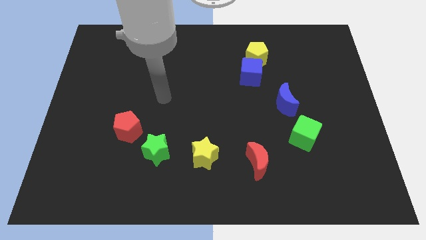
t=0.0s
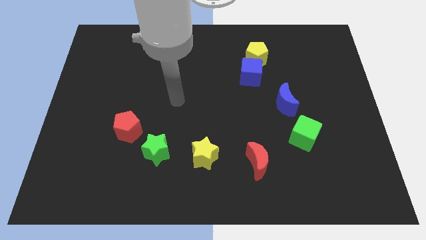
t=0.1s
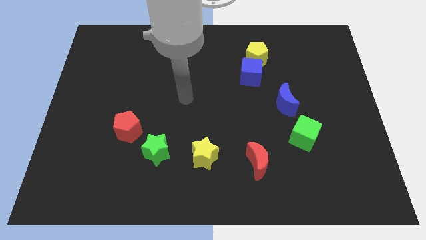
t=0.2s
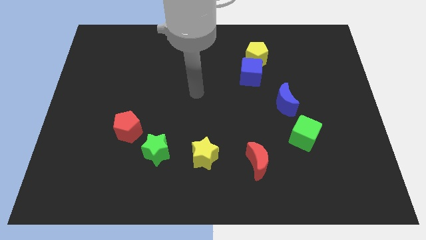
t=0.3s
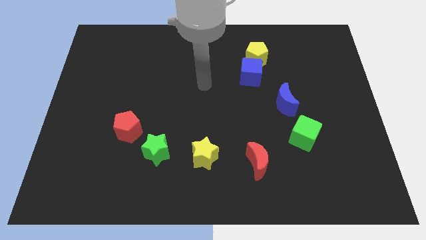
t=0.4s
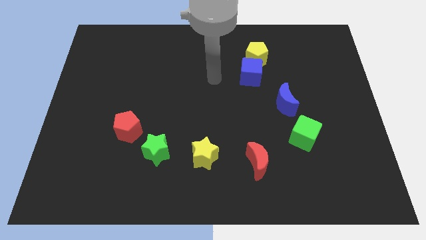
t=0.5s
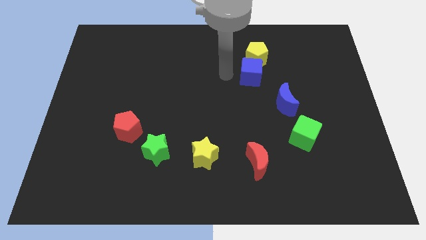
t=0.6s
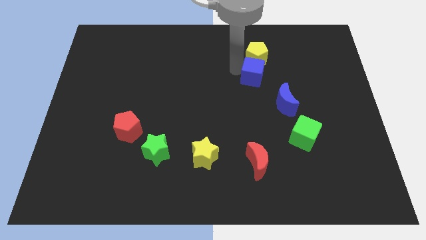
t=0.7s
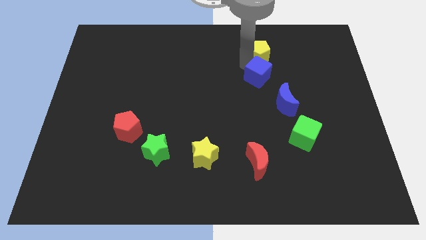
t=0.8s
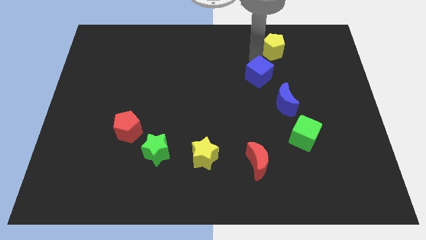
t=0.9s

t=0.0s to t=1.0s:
move the blue cube away from the yellow pentagon

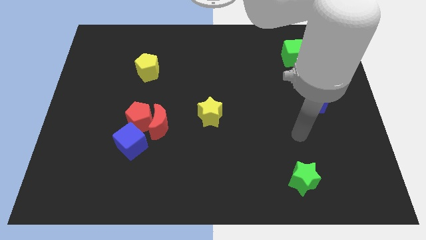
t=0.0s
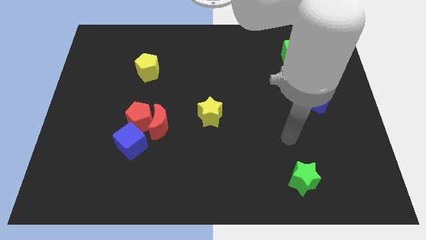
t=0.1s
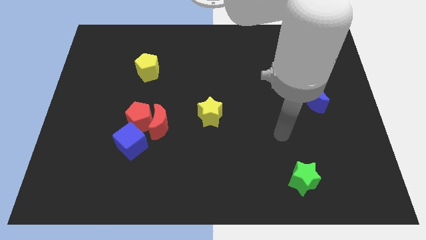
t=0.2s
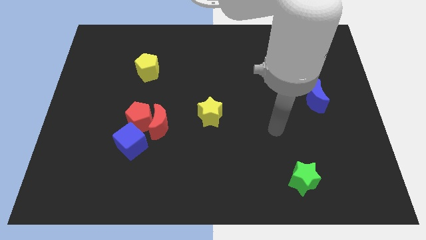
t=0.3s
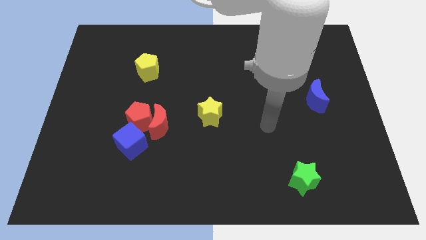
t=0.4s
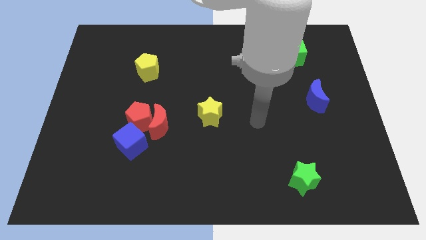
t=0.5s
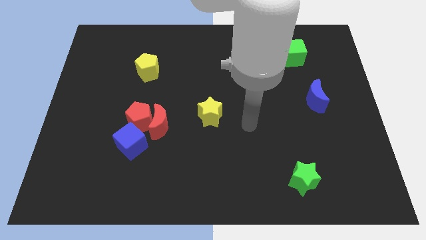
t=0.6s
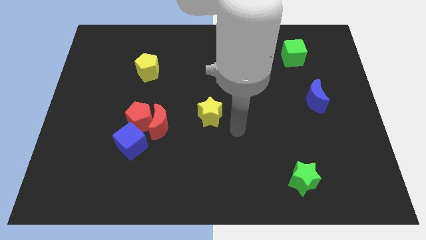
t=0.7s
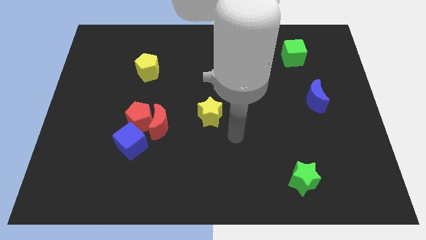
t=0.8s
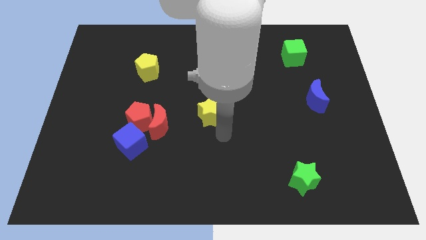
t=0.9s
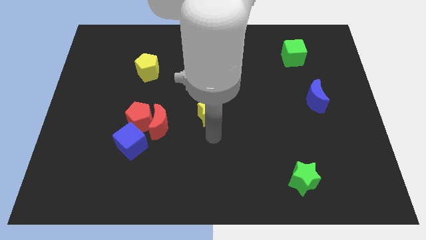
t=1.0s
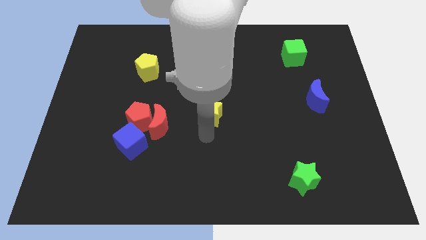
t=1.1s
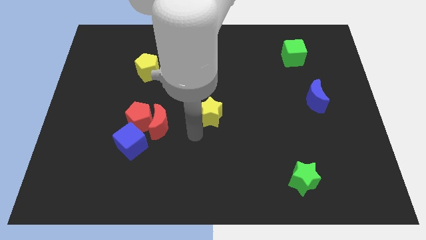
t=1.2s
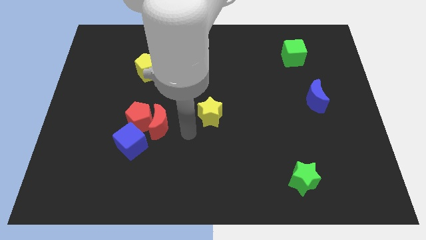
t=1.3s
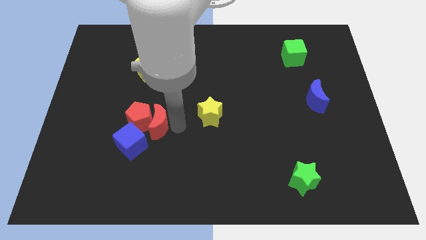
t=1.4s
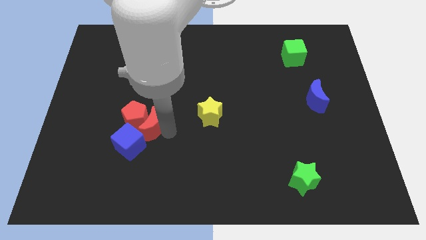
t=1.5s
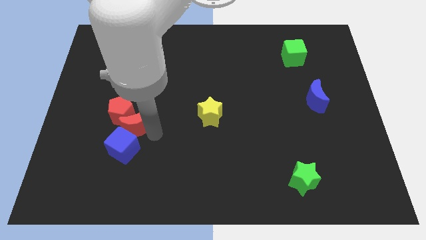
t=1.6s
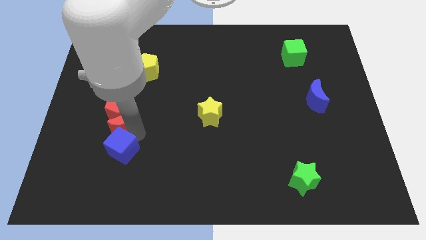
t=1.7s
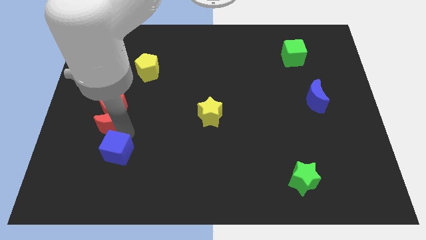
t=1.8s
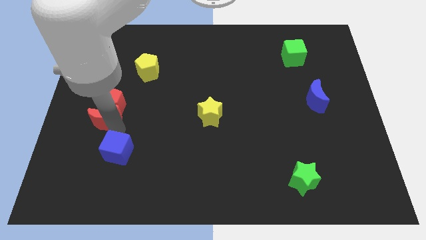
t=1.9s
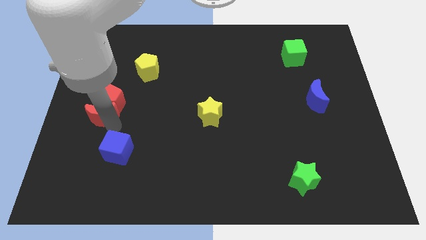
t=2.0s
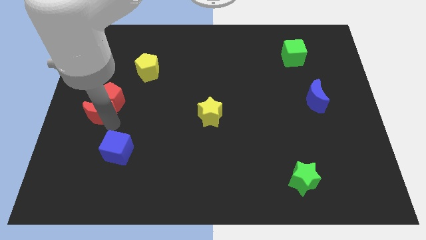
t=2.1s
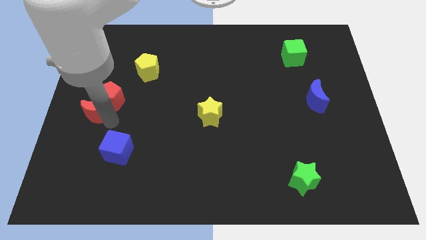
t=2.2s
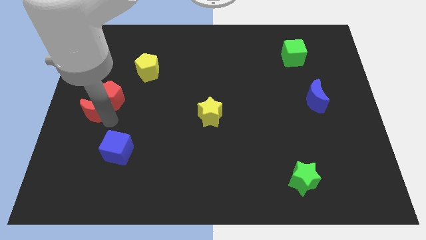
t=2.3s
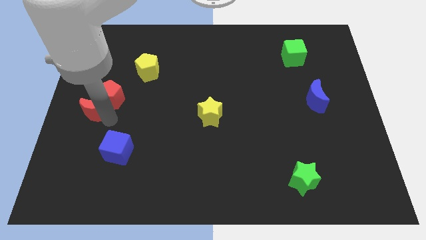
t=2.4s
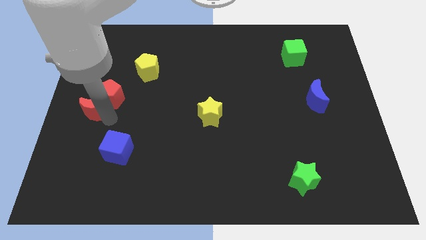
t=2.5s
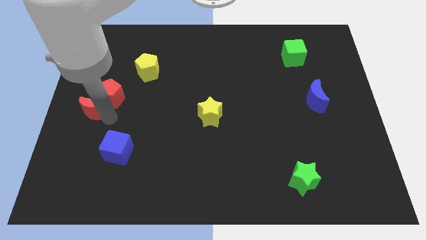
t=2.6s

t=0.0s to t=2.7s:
move the red pentagon away from the red moon and blue cube

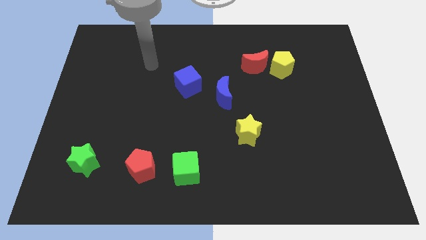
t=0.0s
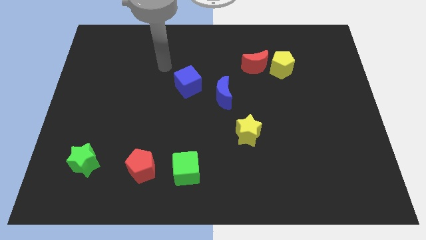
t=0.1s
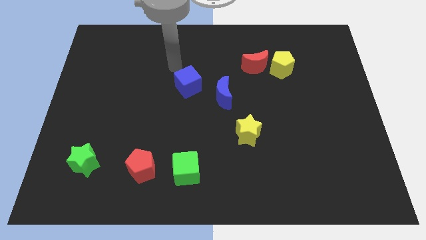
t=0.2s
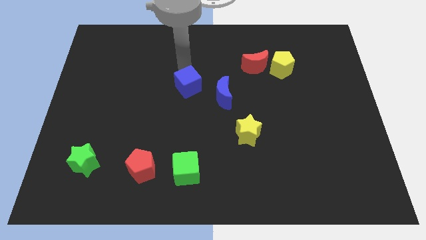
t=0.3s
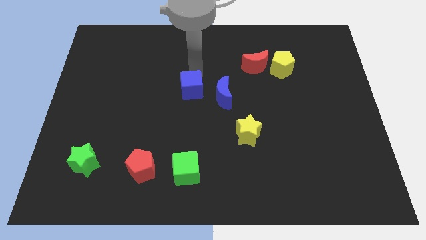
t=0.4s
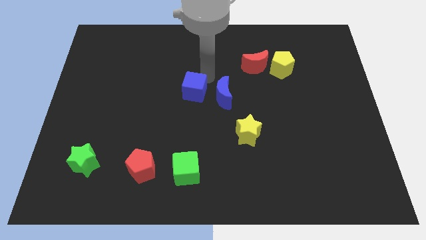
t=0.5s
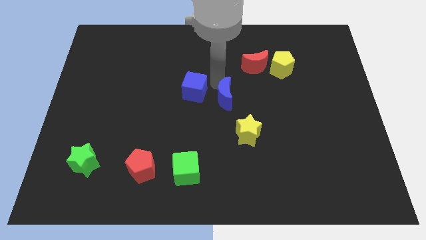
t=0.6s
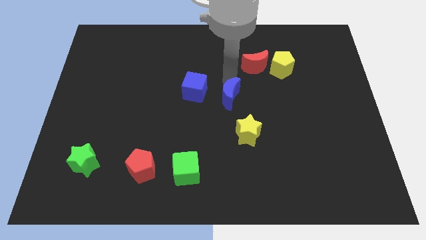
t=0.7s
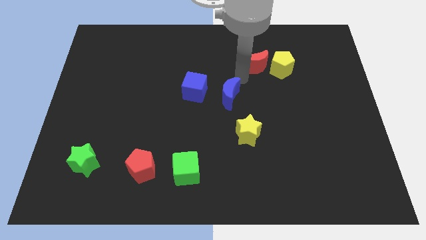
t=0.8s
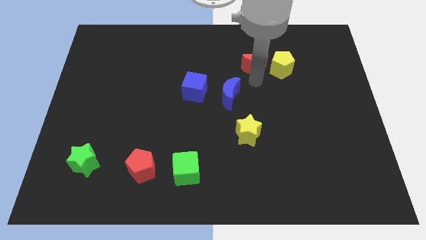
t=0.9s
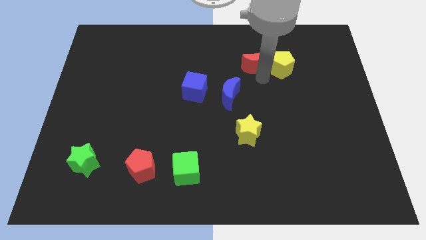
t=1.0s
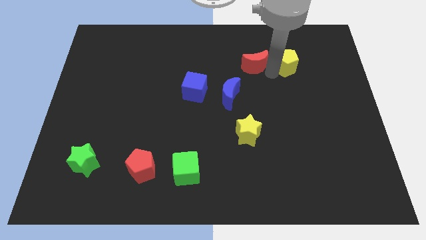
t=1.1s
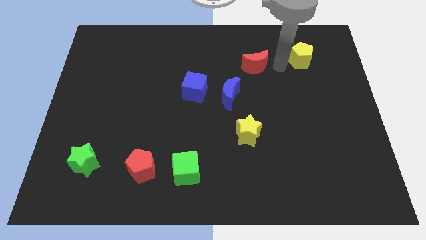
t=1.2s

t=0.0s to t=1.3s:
separate the red moon from the yellow pentagon

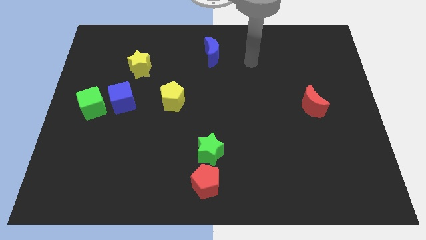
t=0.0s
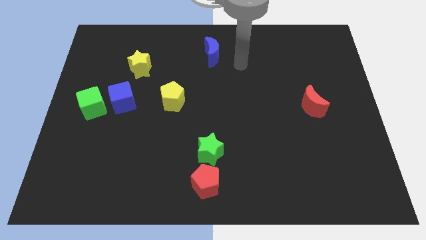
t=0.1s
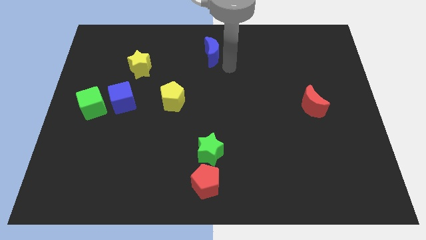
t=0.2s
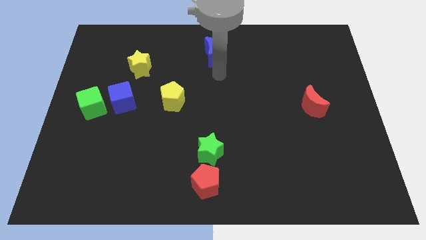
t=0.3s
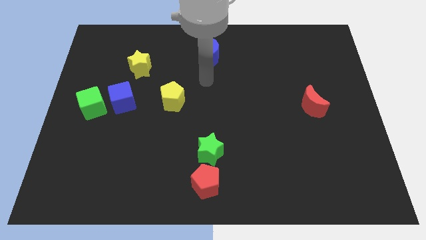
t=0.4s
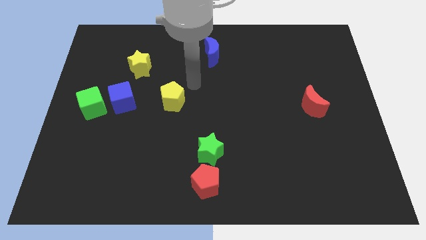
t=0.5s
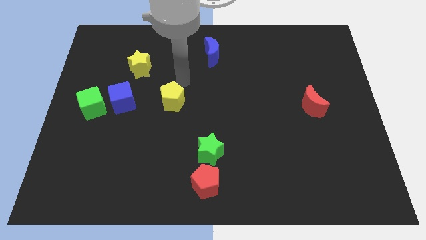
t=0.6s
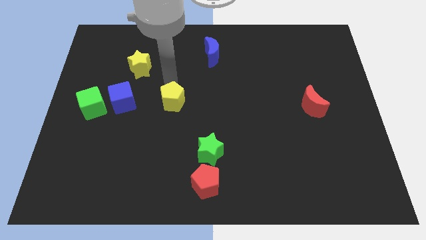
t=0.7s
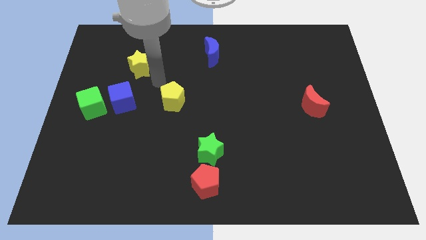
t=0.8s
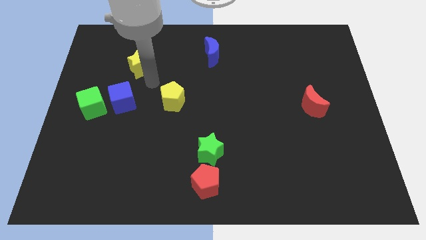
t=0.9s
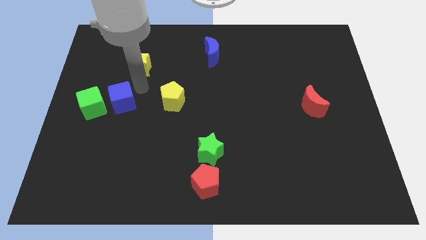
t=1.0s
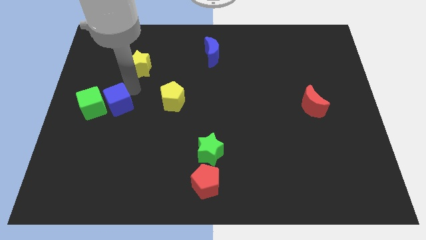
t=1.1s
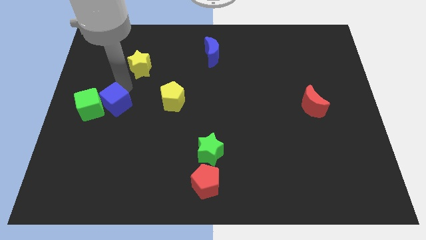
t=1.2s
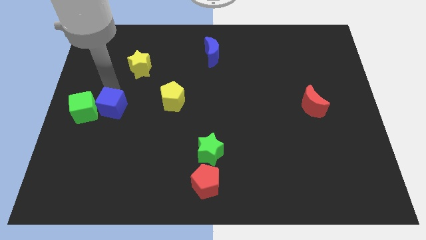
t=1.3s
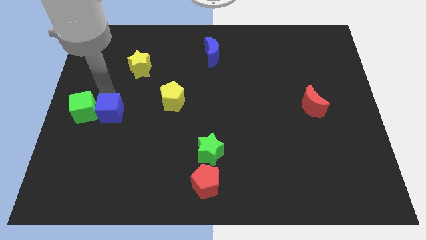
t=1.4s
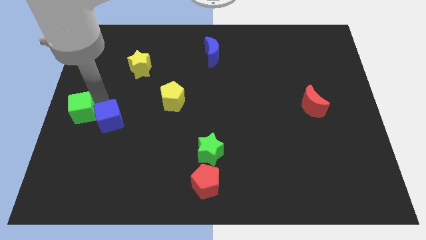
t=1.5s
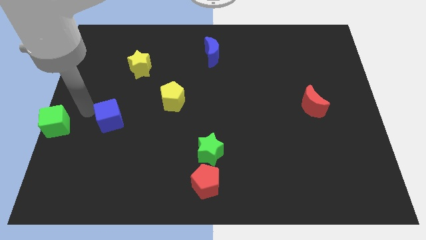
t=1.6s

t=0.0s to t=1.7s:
move the blue cube away from the green cube

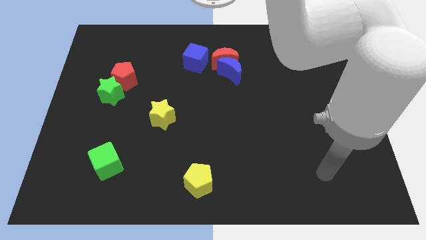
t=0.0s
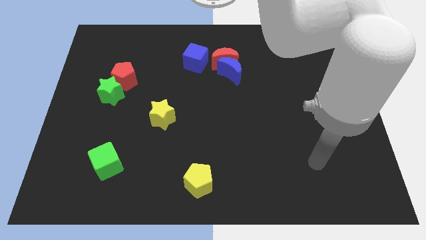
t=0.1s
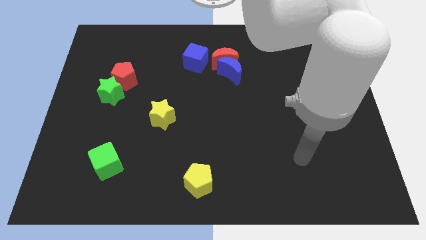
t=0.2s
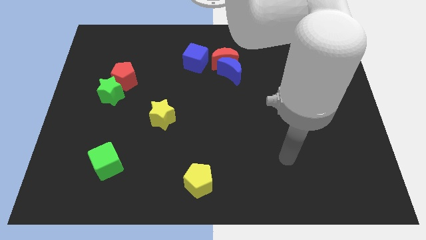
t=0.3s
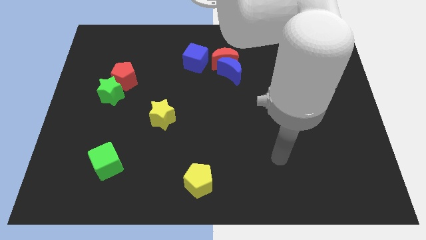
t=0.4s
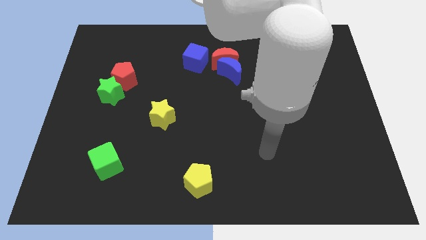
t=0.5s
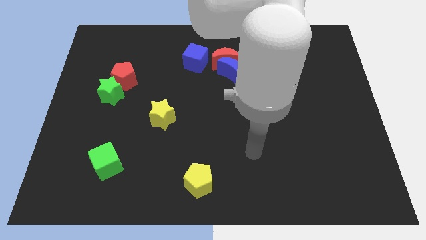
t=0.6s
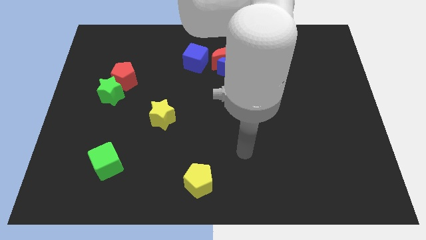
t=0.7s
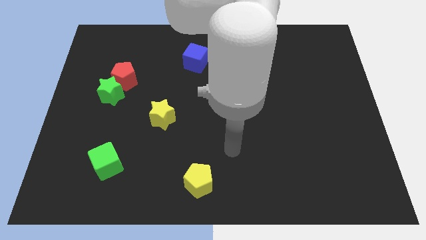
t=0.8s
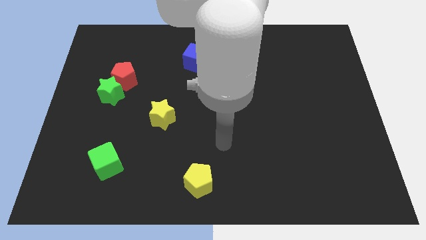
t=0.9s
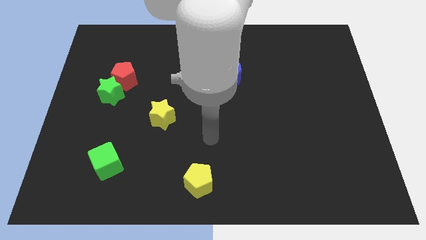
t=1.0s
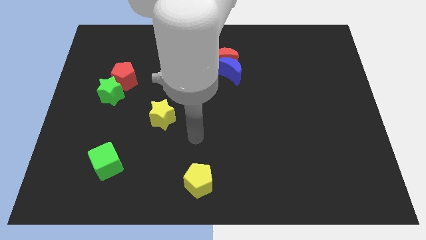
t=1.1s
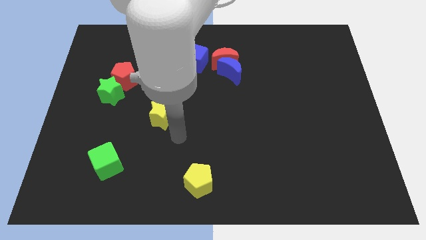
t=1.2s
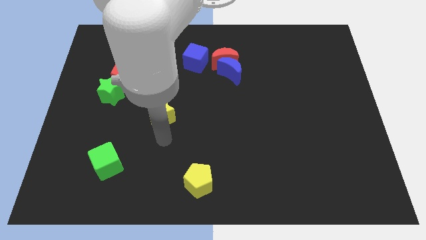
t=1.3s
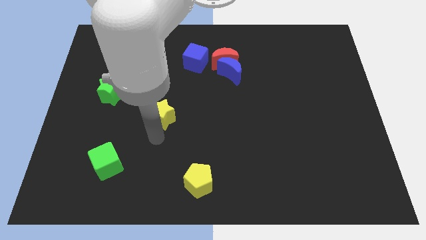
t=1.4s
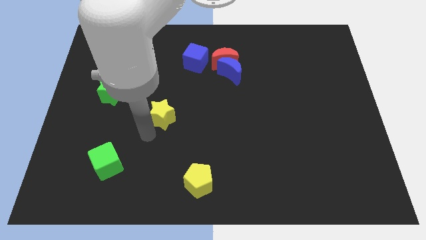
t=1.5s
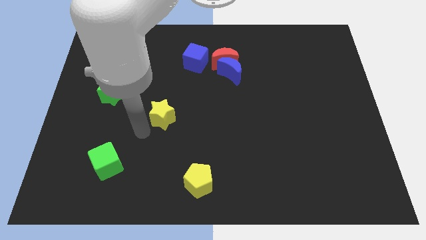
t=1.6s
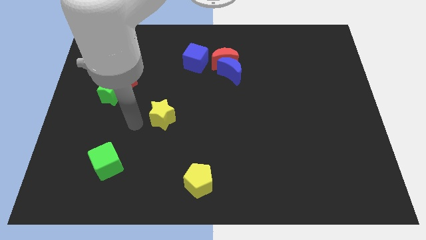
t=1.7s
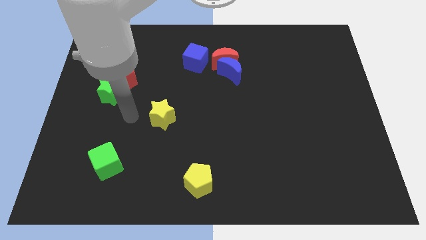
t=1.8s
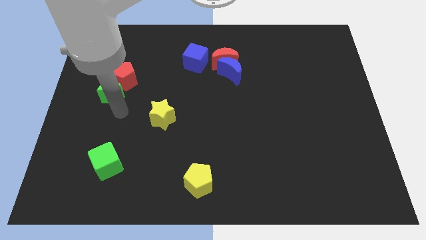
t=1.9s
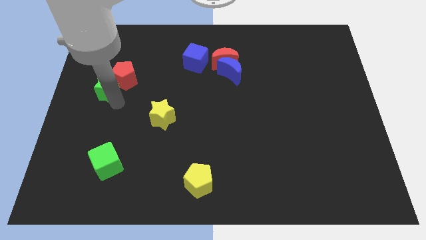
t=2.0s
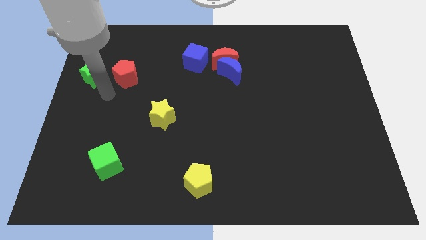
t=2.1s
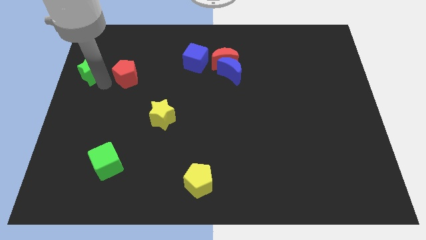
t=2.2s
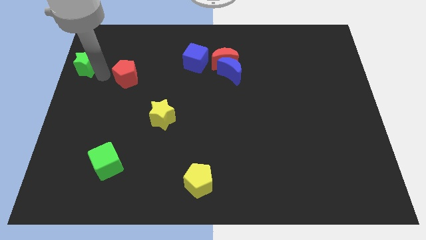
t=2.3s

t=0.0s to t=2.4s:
separate the red pentagon from the green star
